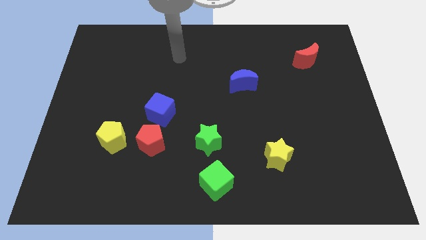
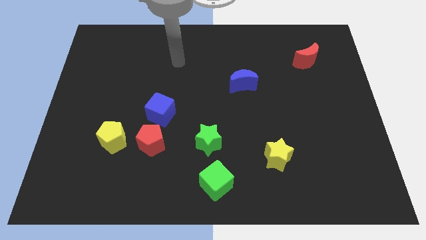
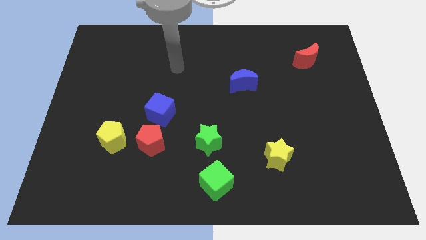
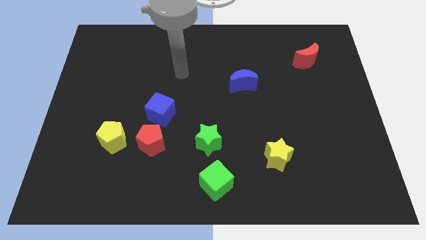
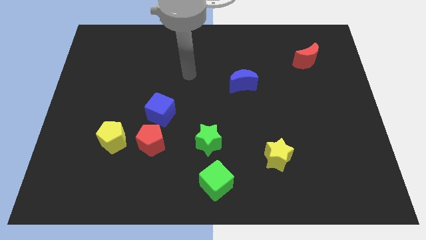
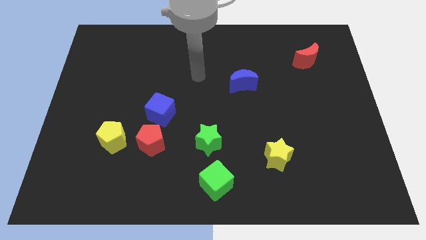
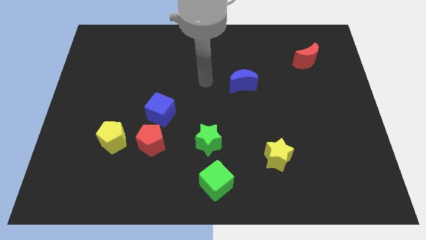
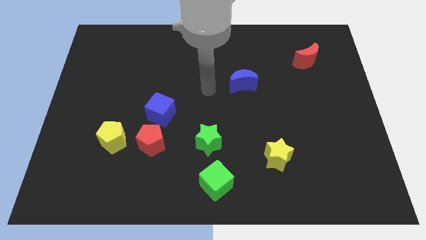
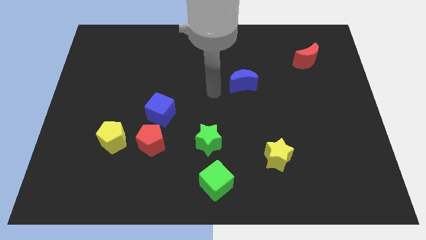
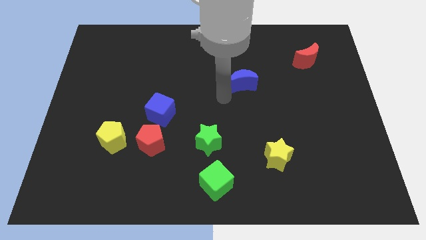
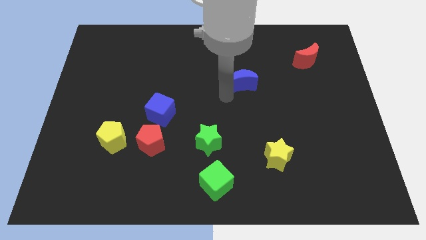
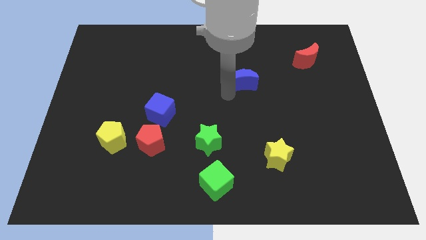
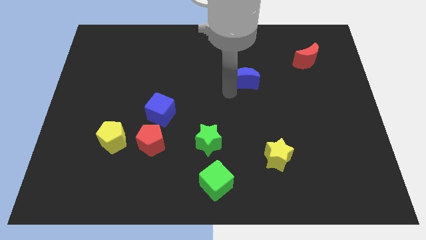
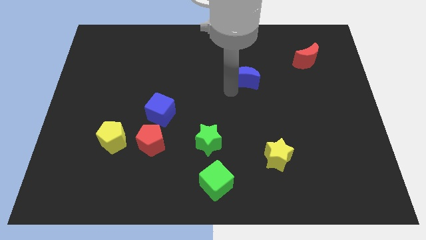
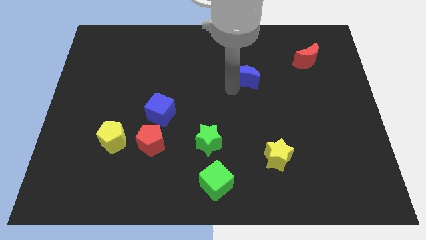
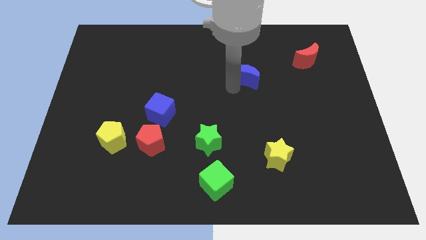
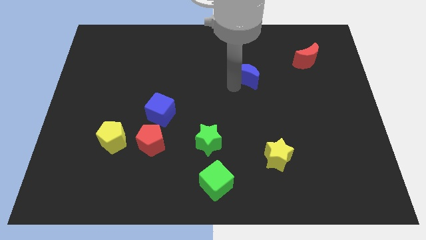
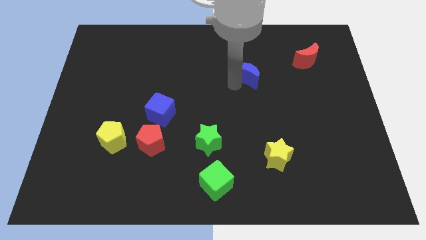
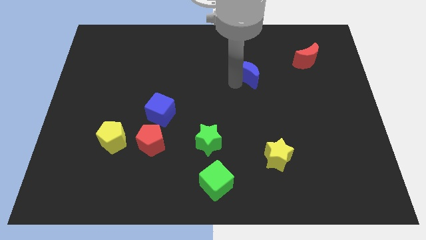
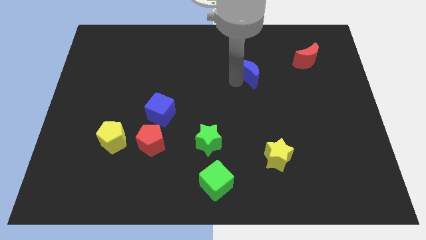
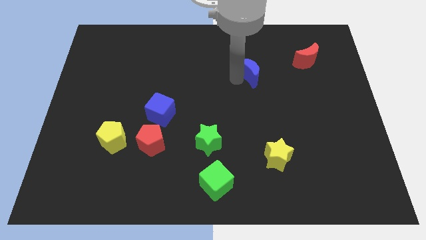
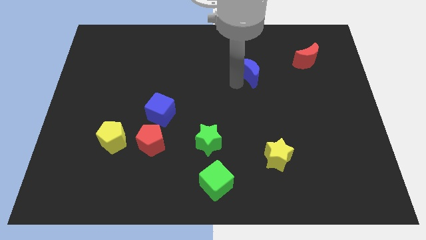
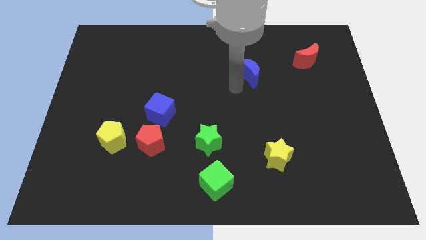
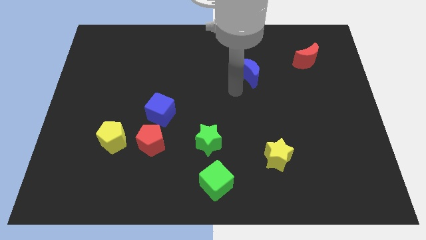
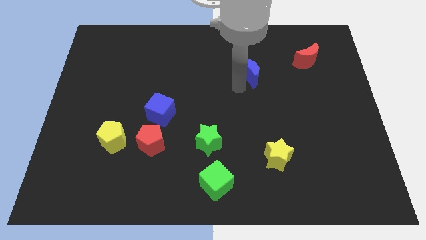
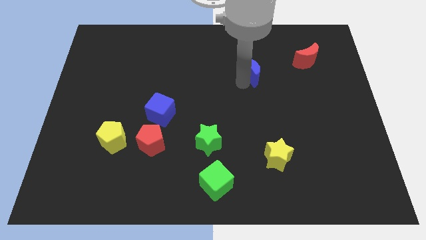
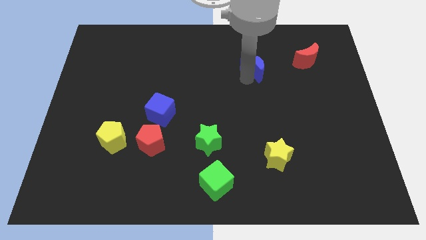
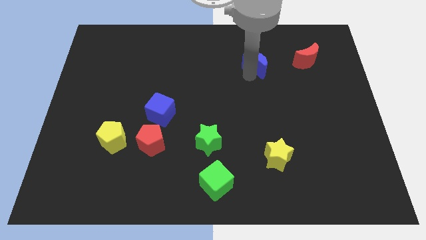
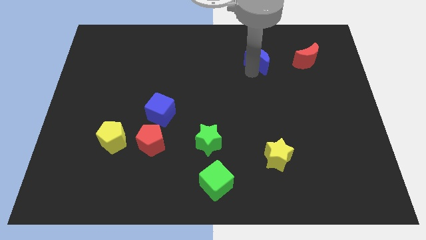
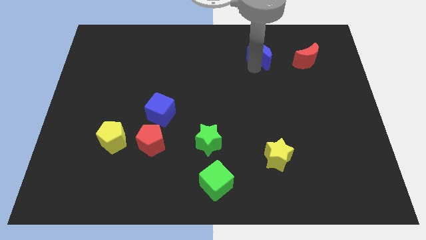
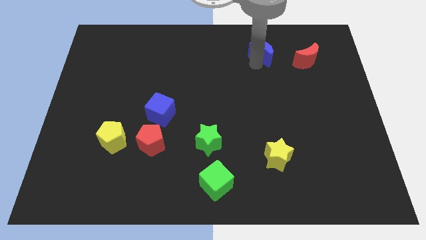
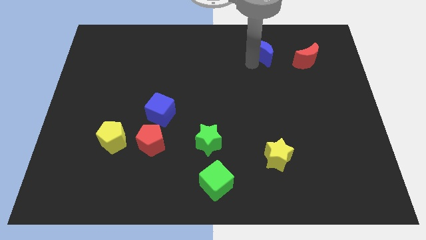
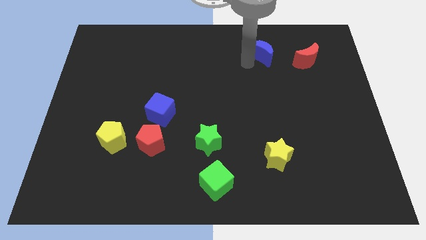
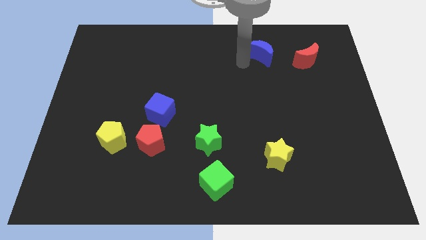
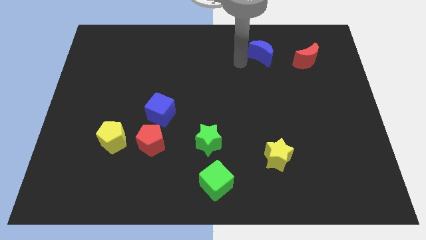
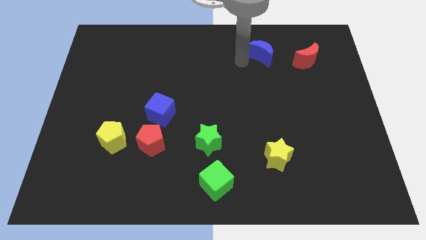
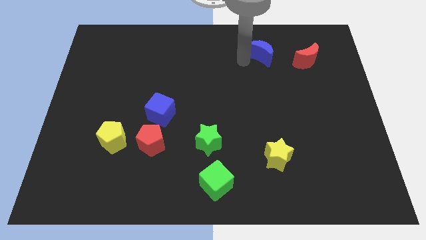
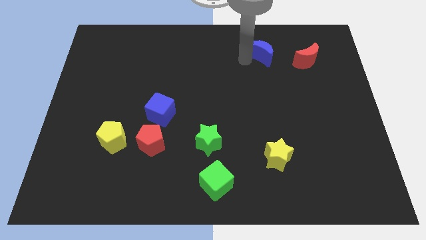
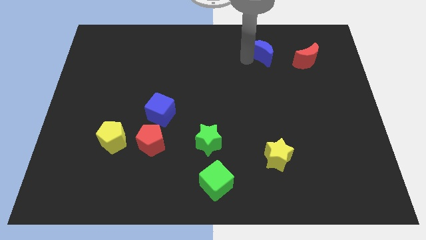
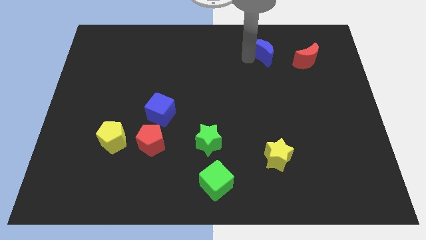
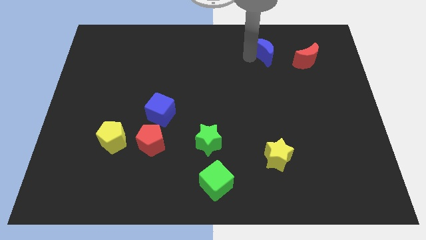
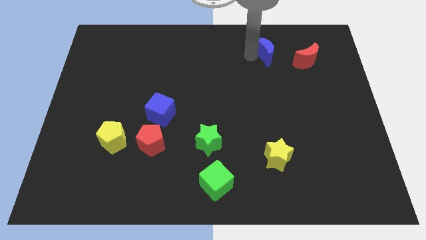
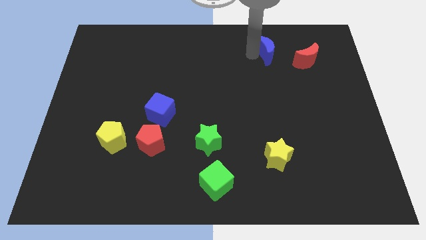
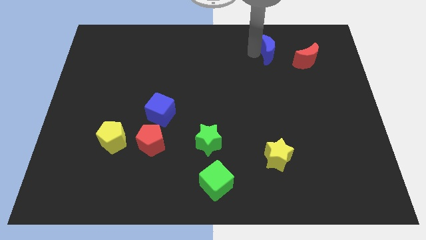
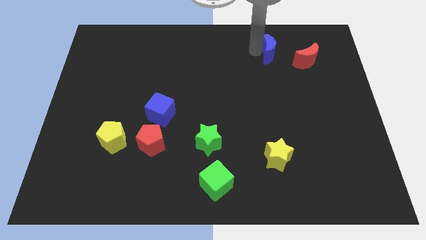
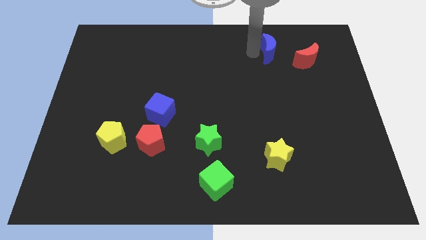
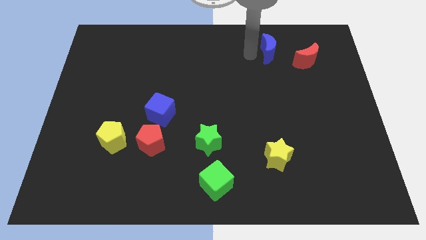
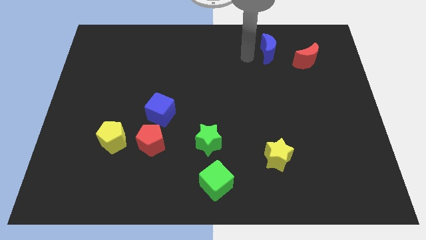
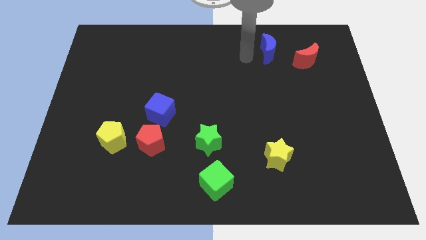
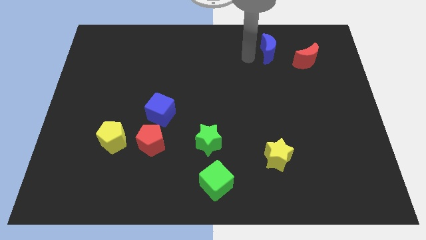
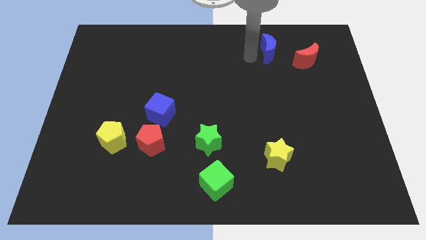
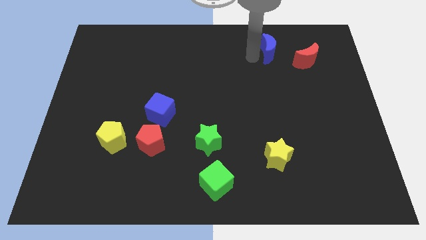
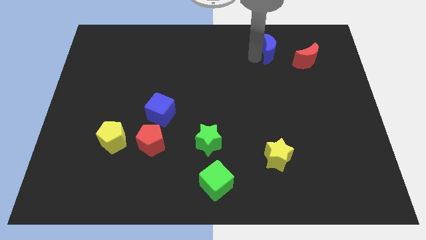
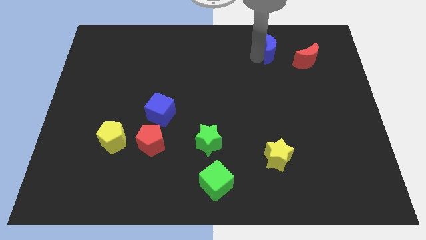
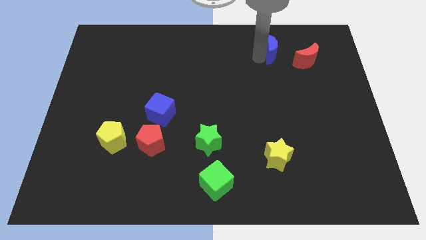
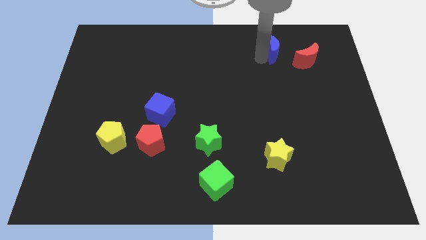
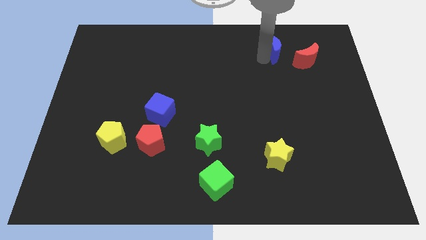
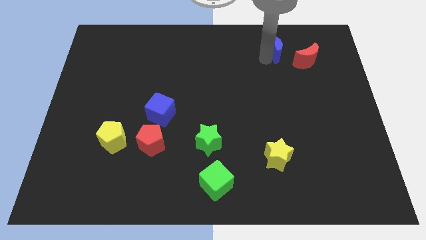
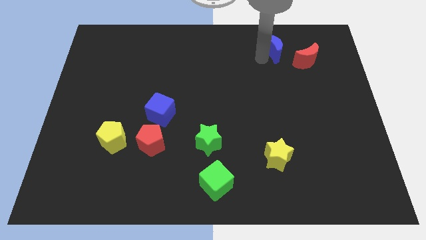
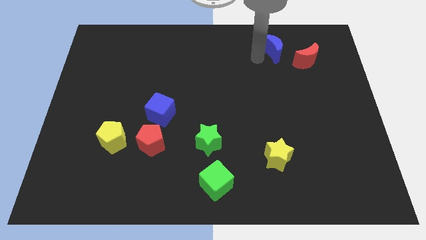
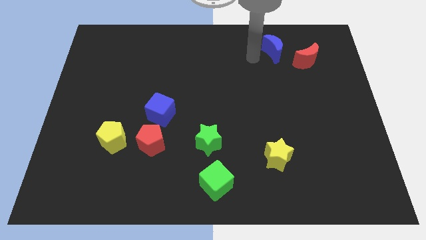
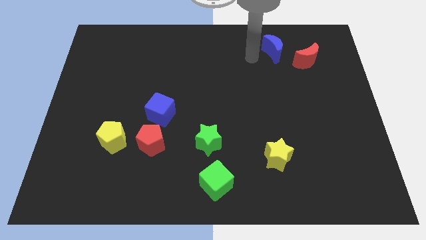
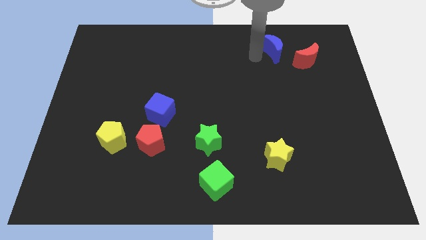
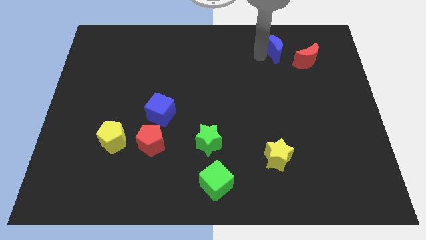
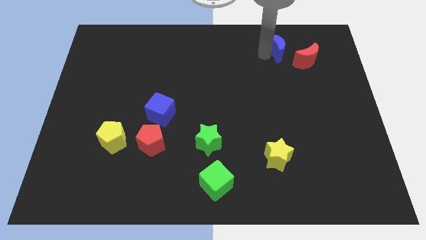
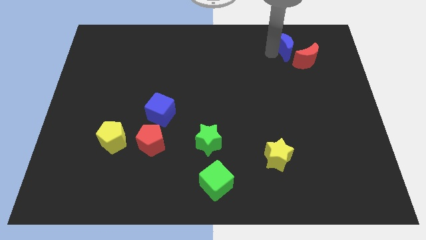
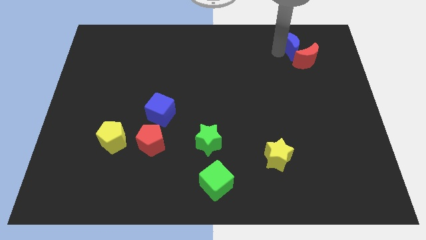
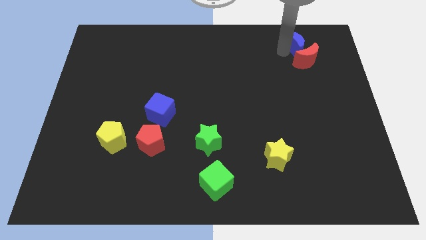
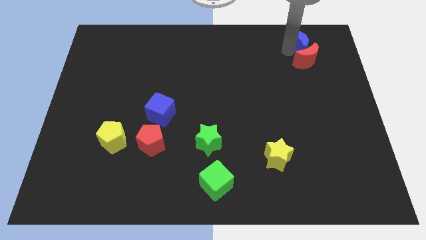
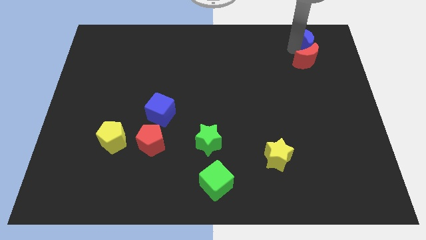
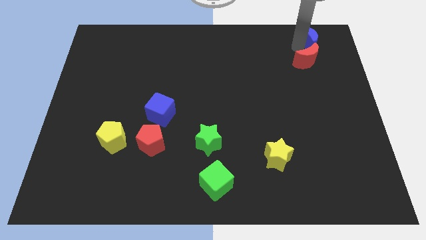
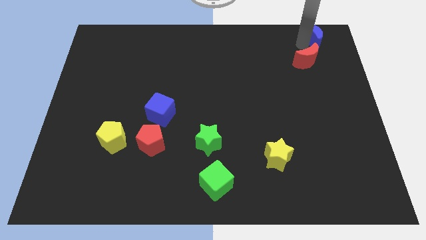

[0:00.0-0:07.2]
put the blue moon to the top right corner
